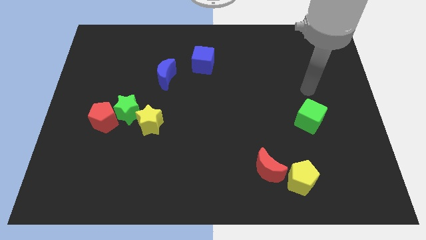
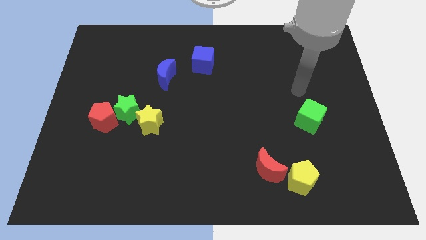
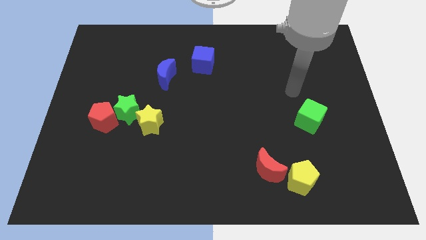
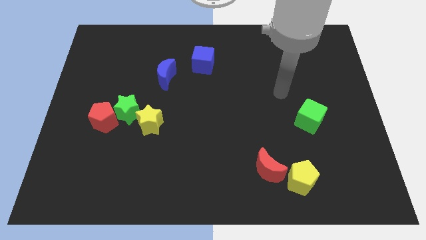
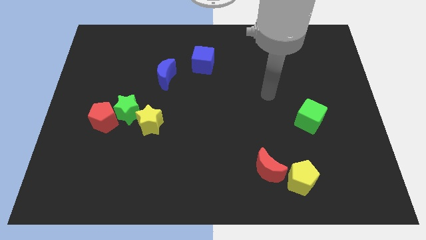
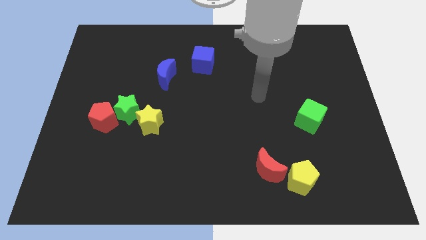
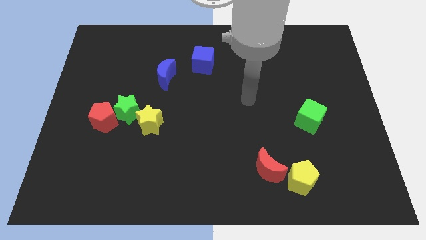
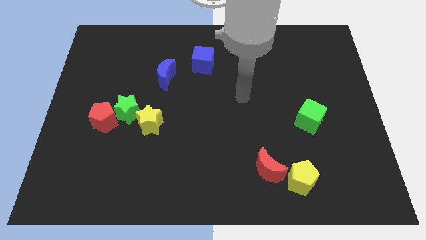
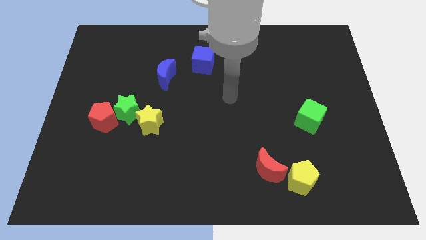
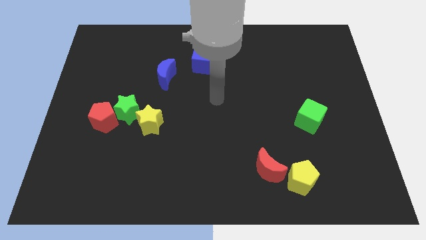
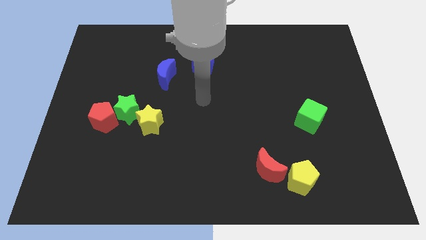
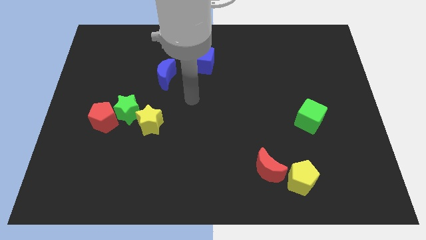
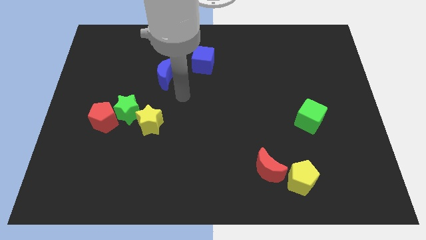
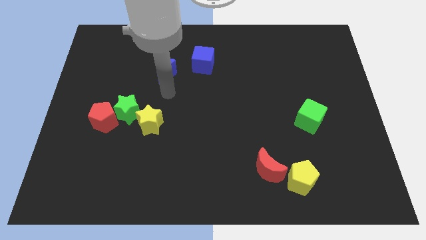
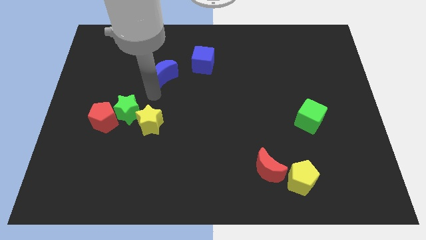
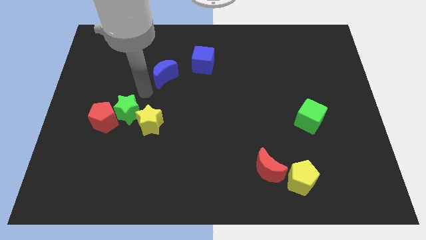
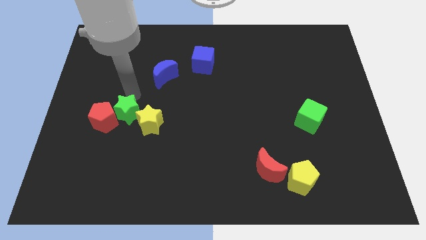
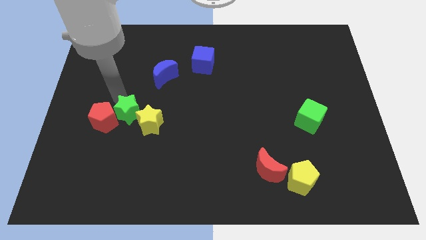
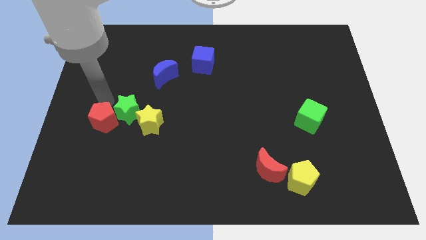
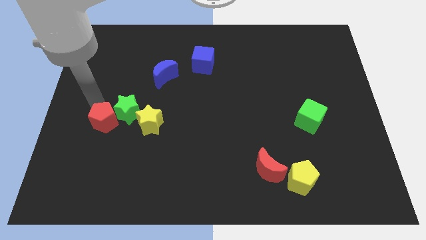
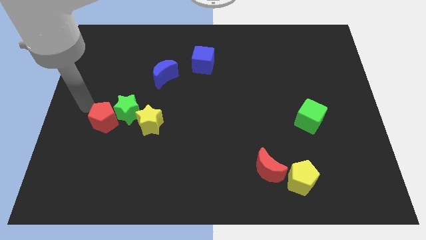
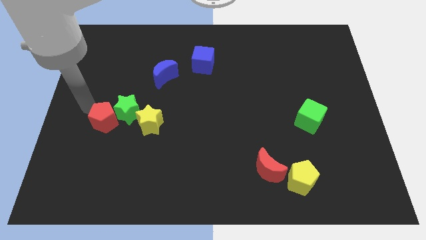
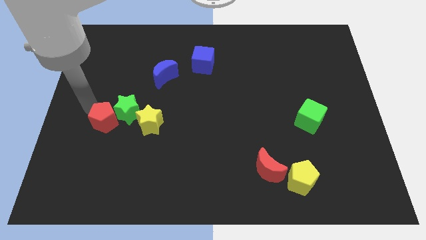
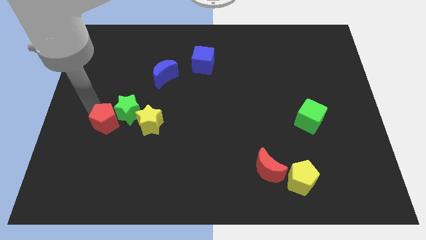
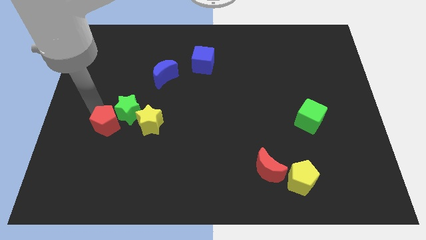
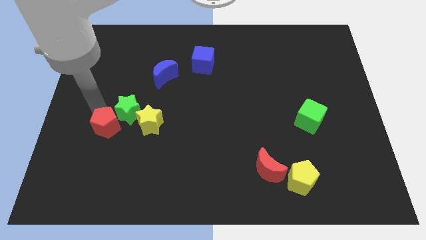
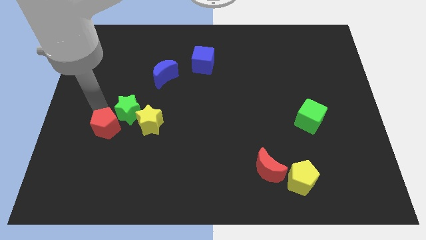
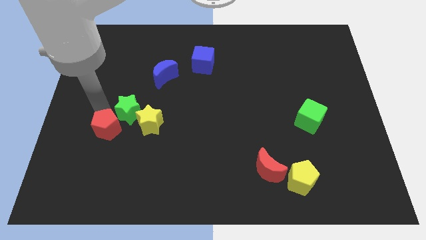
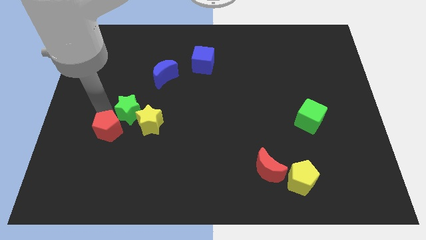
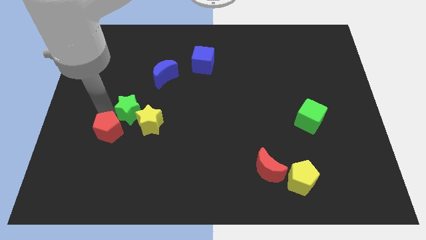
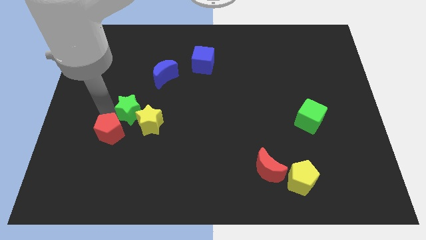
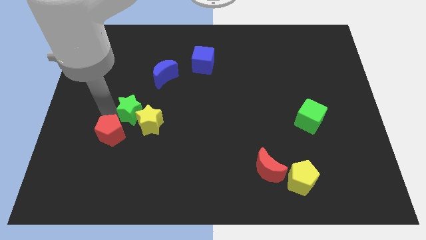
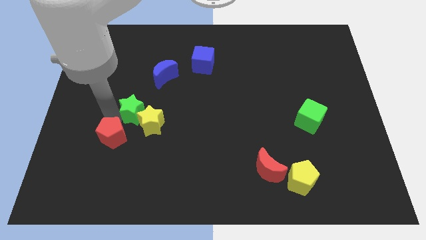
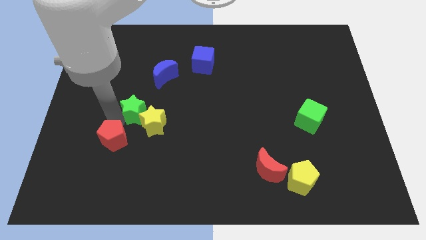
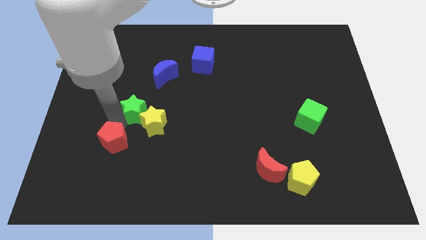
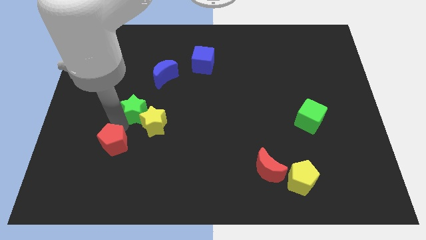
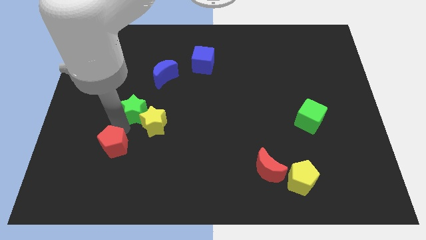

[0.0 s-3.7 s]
move the red pentagon downwards and right diagonally somewhat

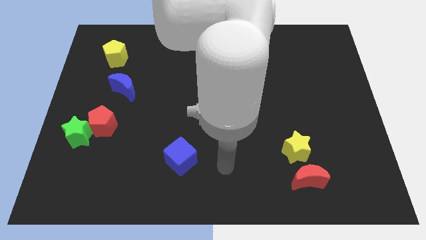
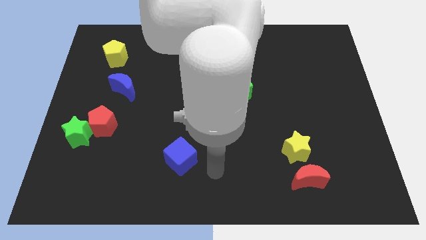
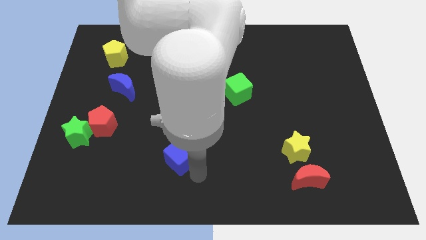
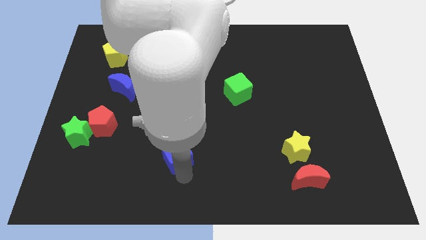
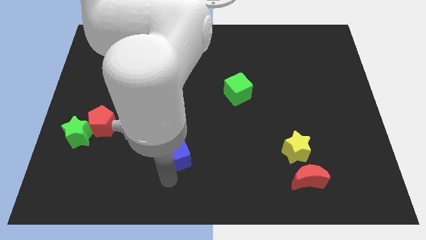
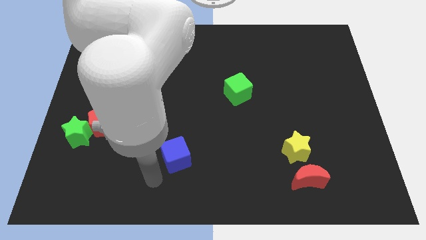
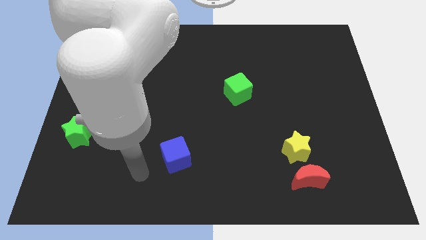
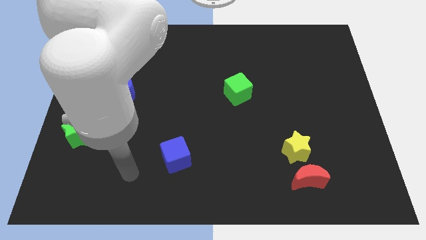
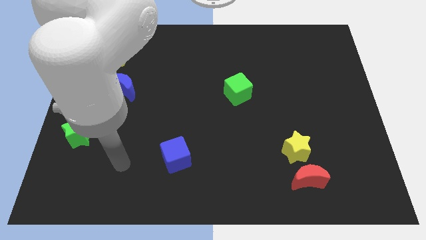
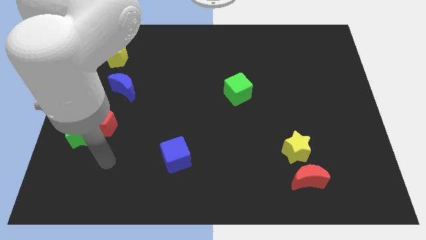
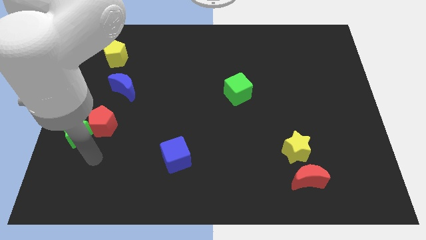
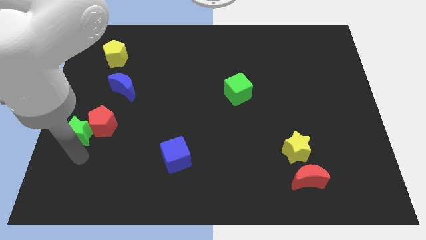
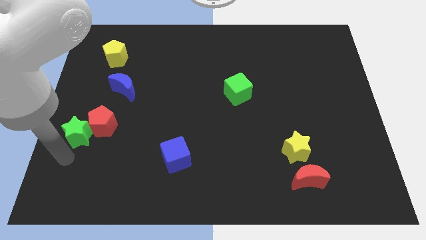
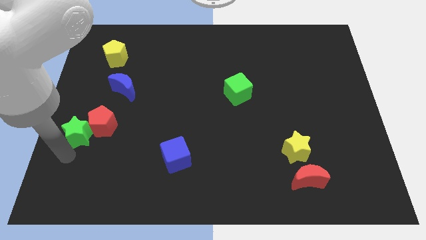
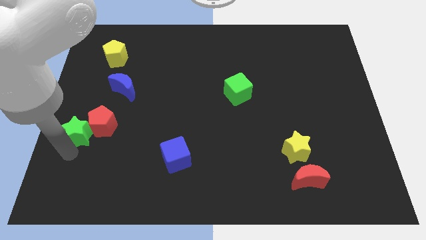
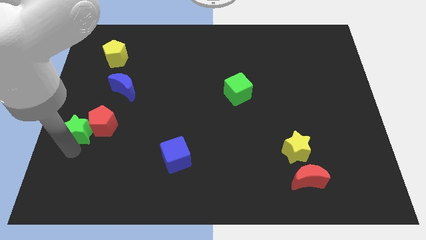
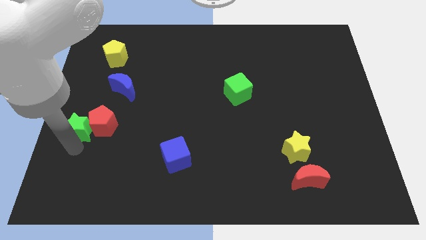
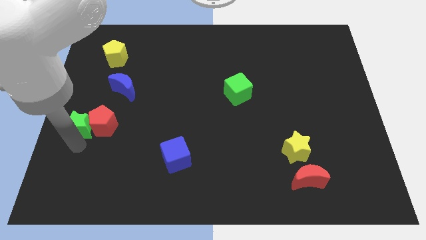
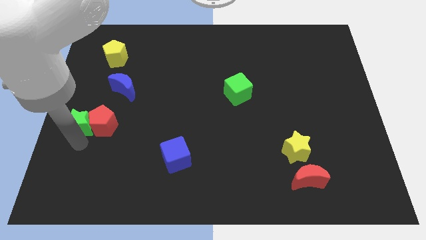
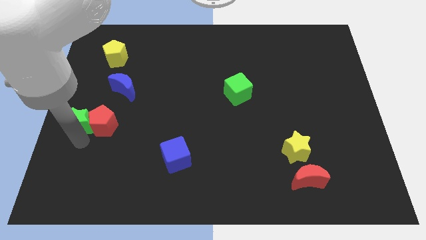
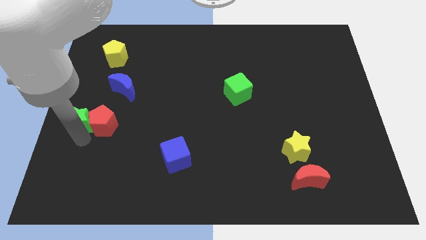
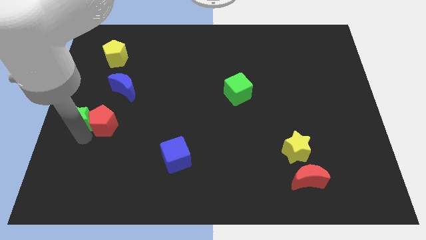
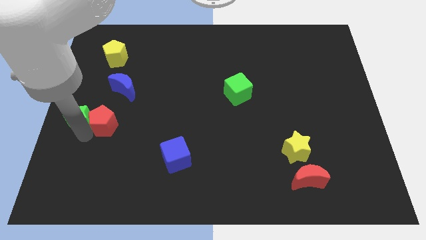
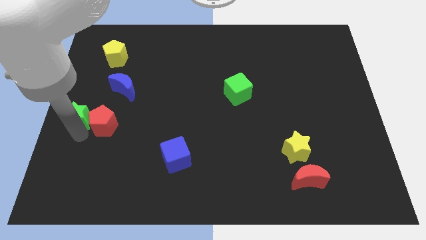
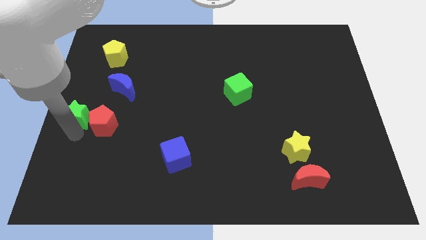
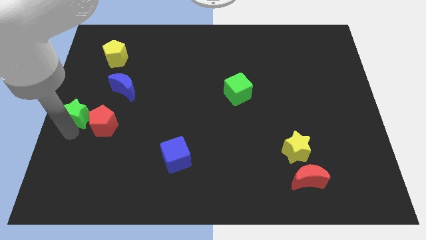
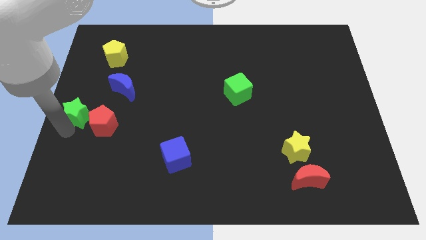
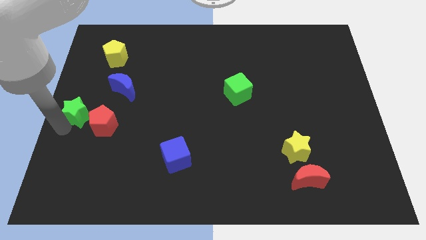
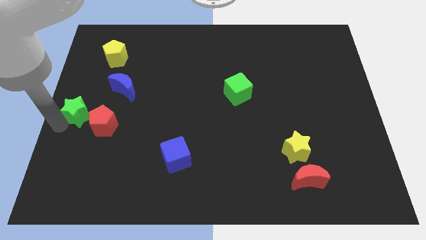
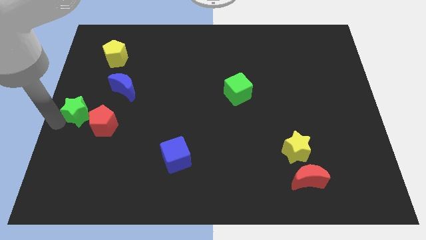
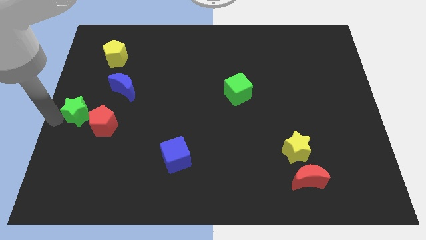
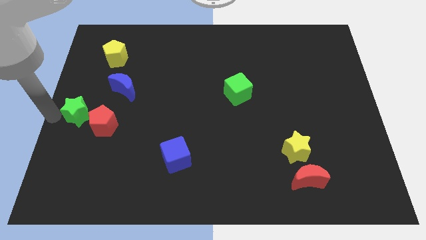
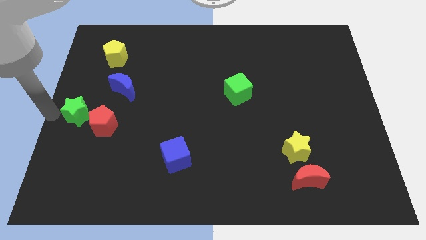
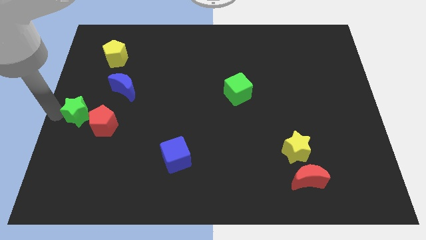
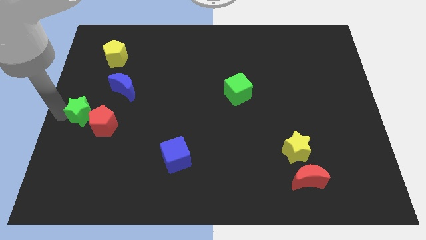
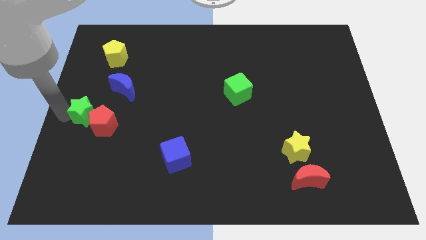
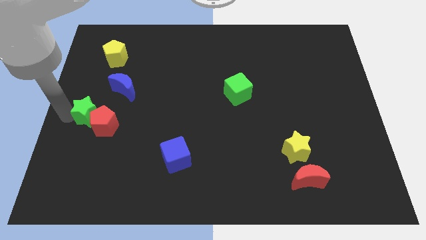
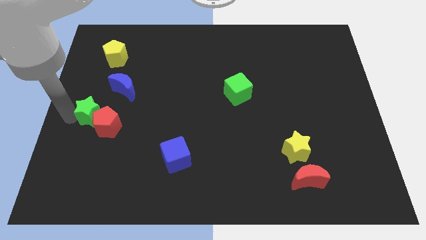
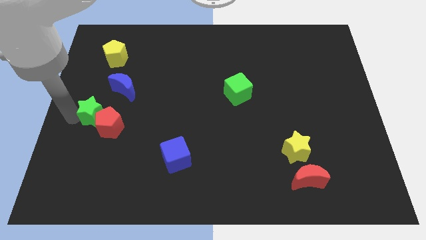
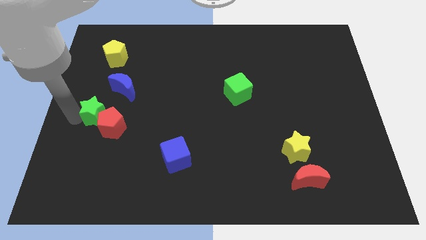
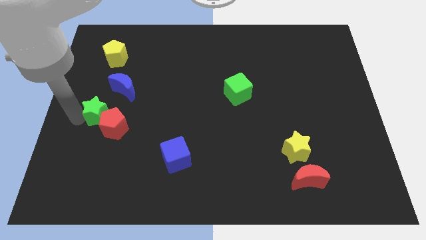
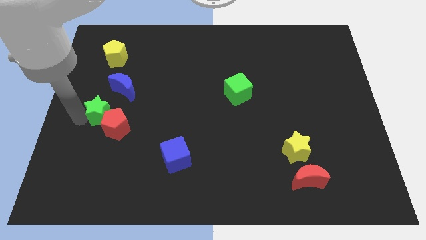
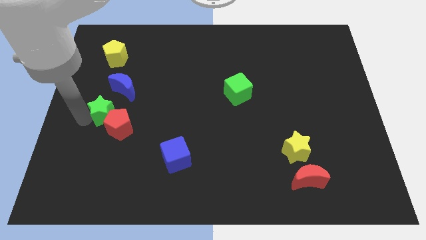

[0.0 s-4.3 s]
push the green star slightly upwards and to the right diagonally
